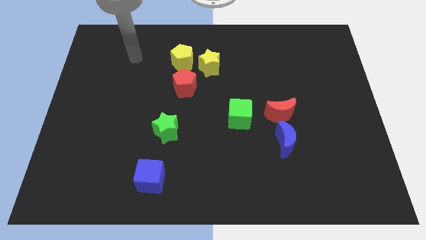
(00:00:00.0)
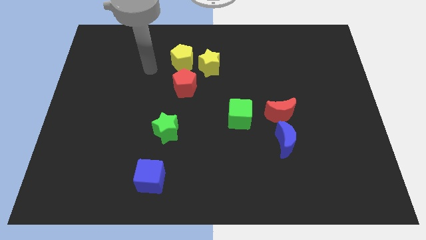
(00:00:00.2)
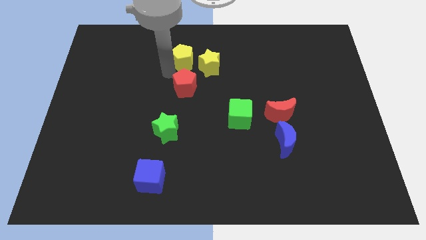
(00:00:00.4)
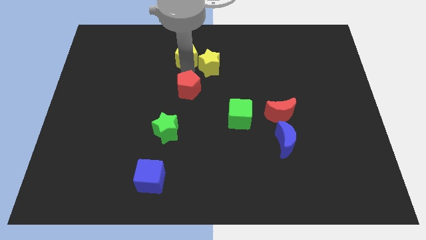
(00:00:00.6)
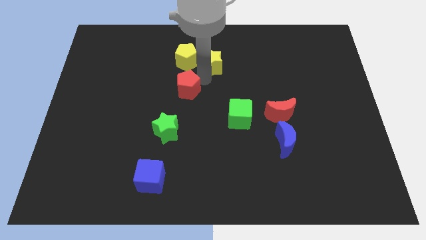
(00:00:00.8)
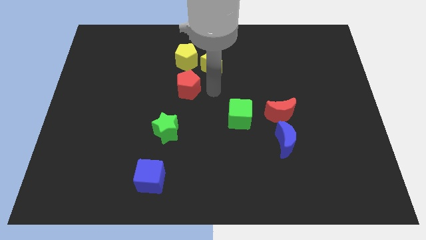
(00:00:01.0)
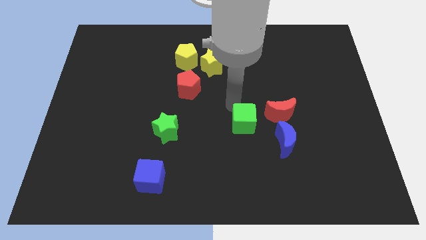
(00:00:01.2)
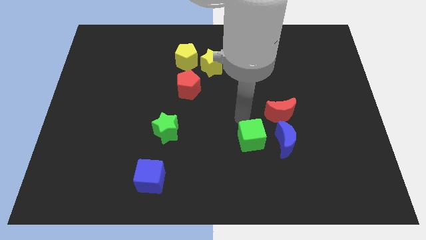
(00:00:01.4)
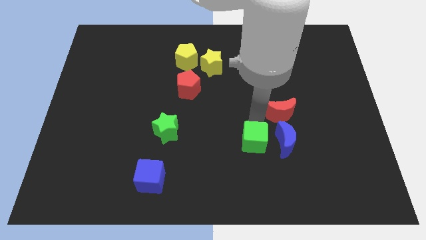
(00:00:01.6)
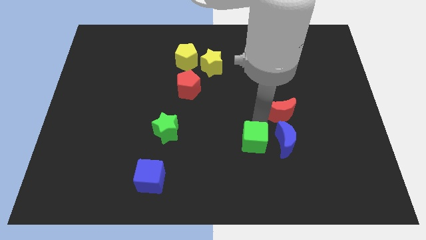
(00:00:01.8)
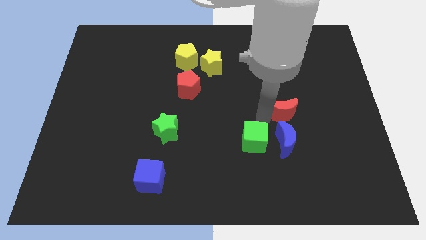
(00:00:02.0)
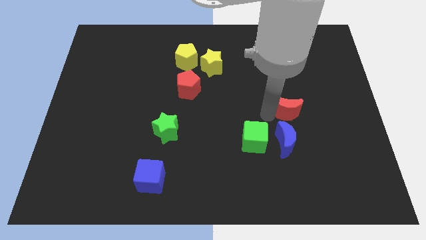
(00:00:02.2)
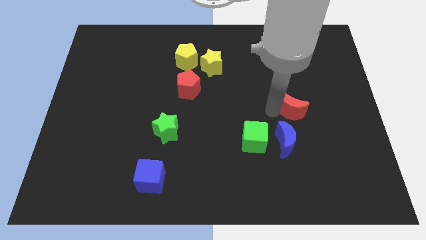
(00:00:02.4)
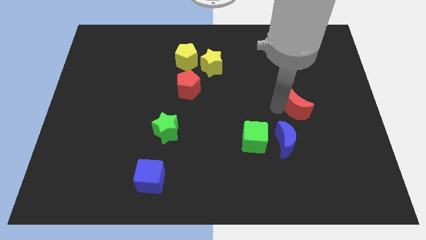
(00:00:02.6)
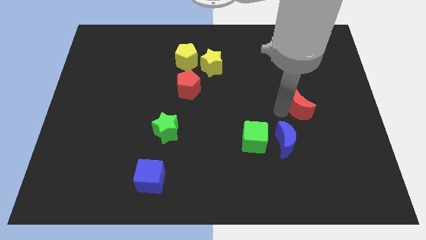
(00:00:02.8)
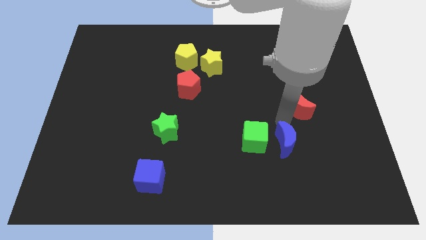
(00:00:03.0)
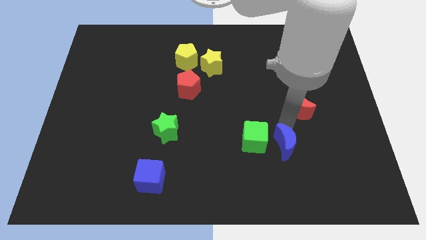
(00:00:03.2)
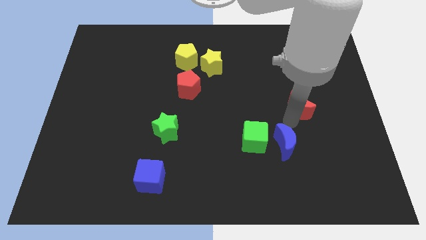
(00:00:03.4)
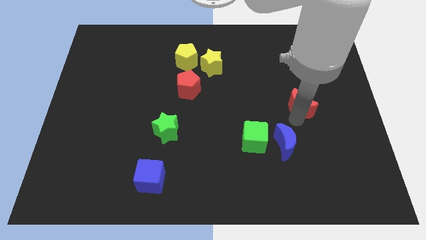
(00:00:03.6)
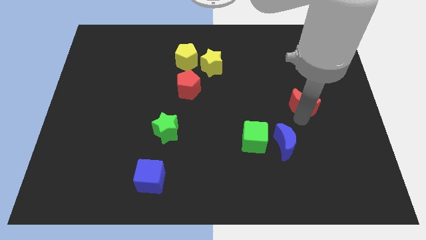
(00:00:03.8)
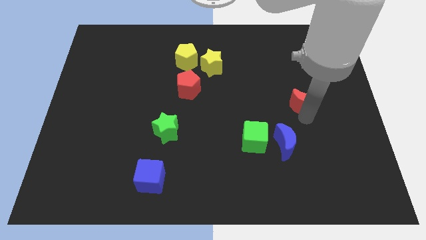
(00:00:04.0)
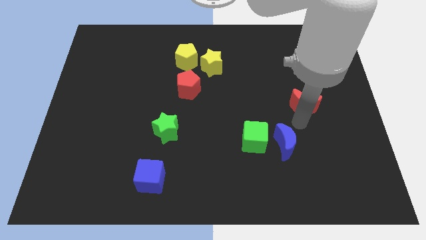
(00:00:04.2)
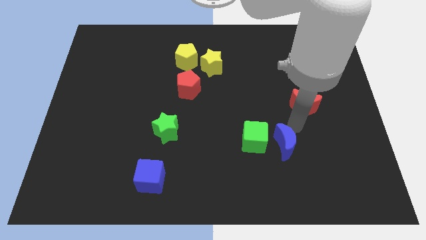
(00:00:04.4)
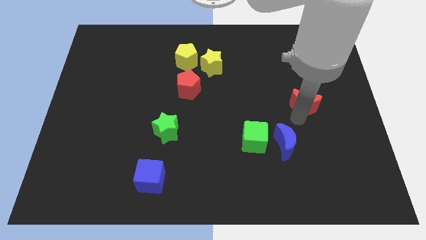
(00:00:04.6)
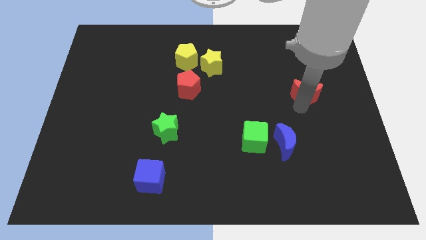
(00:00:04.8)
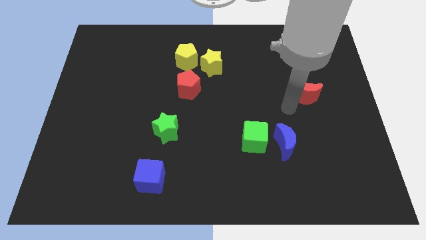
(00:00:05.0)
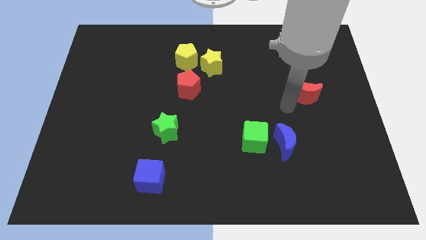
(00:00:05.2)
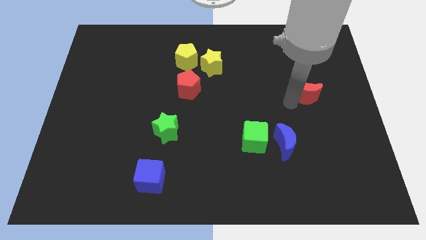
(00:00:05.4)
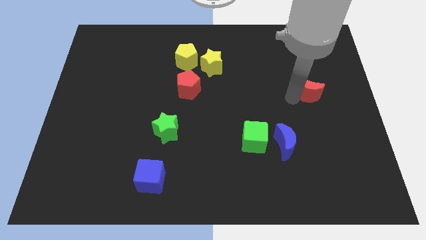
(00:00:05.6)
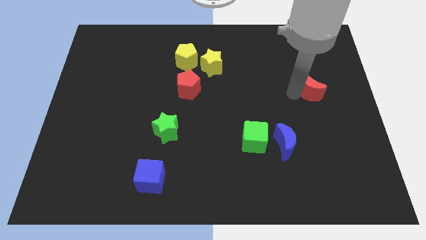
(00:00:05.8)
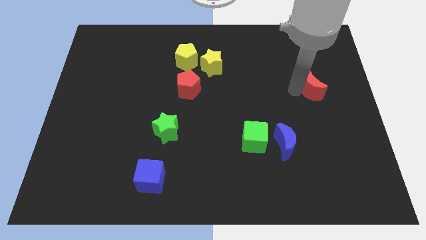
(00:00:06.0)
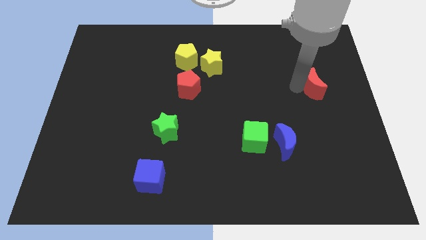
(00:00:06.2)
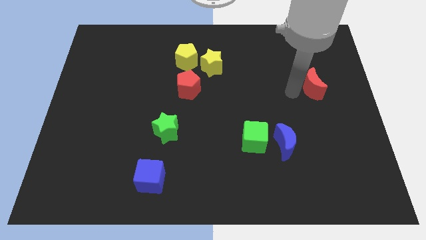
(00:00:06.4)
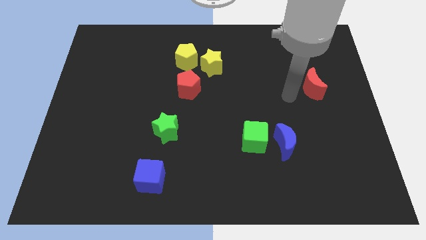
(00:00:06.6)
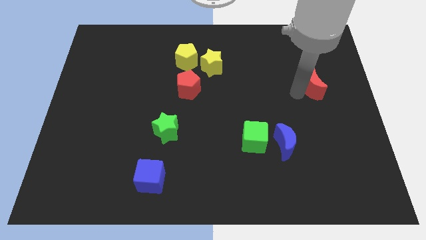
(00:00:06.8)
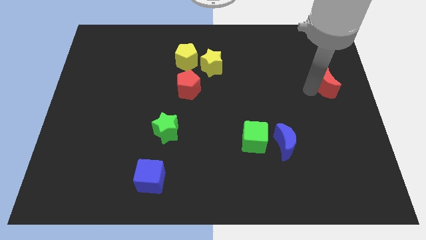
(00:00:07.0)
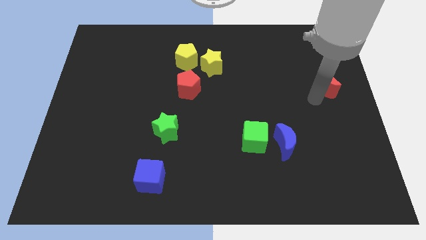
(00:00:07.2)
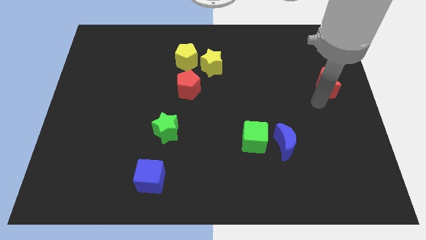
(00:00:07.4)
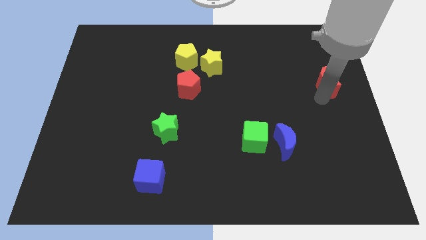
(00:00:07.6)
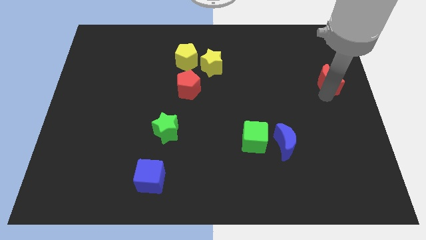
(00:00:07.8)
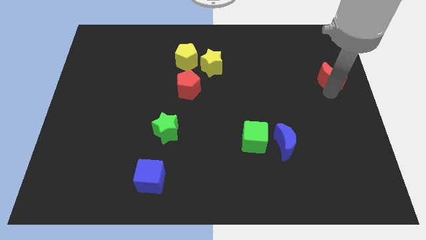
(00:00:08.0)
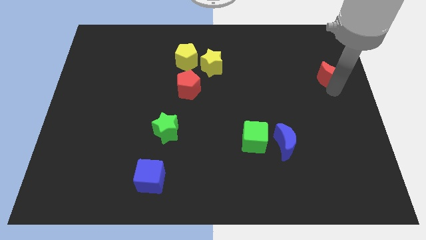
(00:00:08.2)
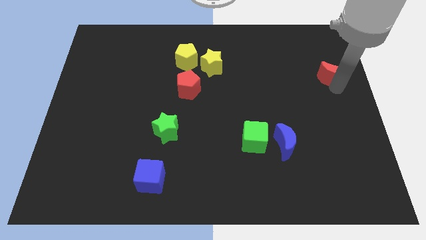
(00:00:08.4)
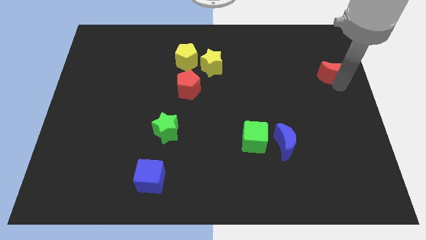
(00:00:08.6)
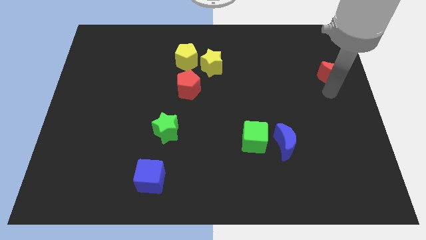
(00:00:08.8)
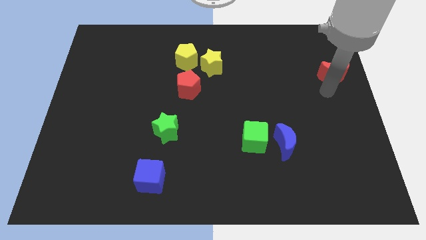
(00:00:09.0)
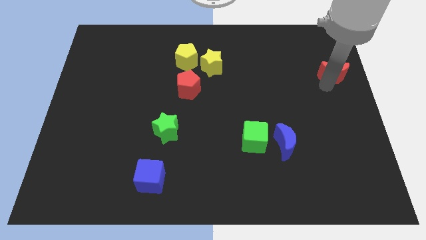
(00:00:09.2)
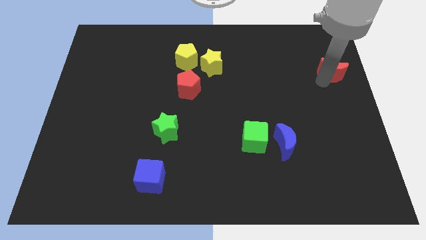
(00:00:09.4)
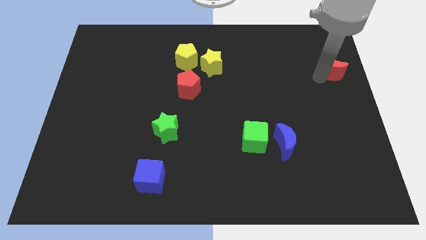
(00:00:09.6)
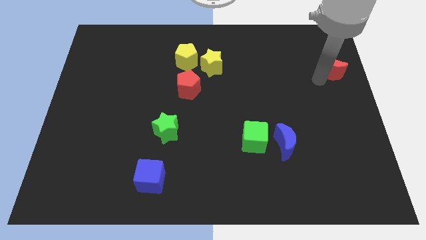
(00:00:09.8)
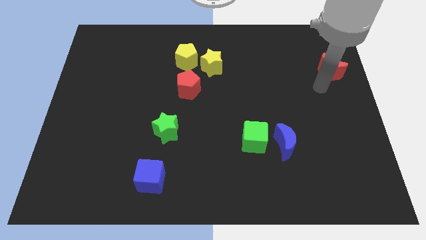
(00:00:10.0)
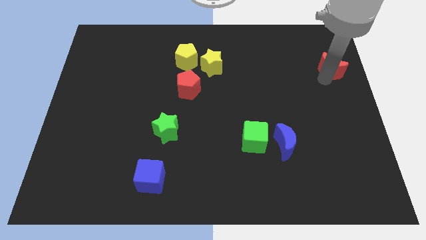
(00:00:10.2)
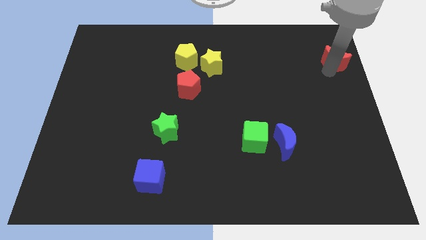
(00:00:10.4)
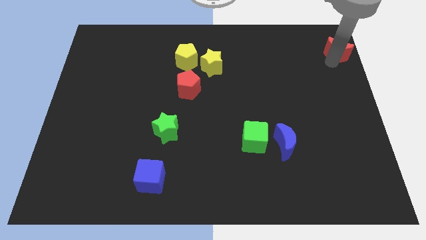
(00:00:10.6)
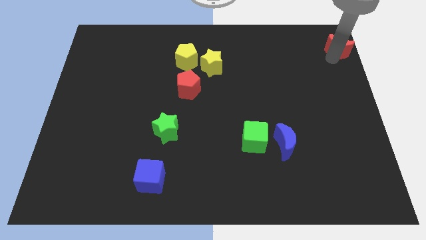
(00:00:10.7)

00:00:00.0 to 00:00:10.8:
push the red moon to the upper right corner
